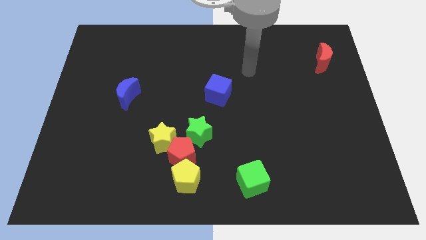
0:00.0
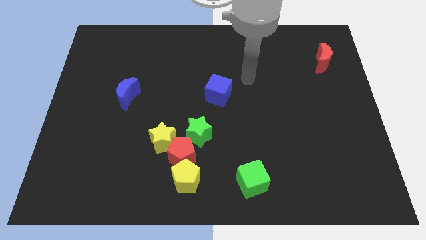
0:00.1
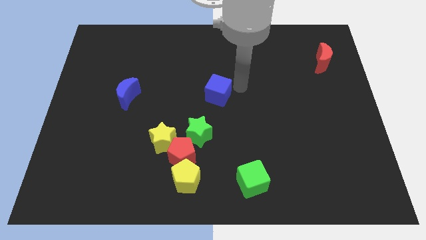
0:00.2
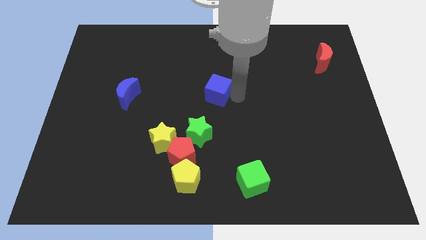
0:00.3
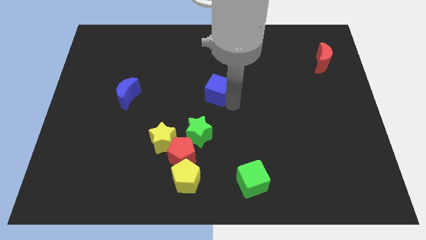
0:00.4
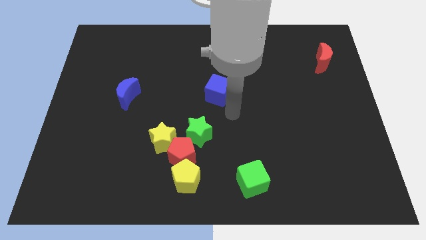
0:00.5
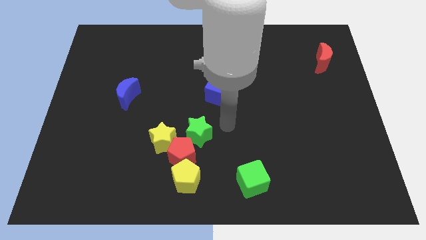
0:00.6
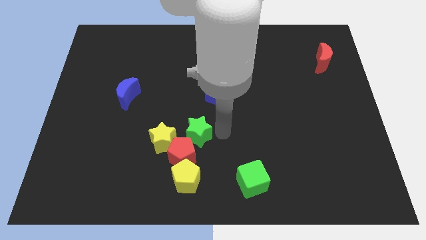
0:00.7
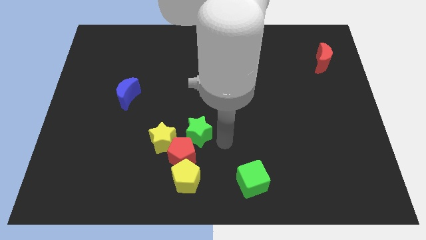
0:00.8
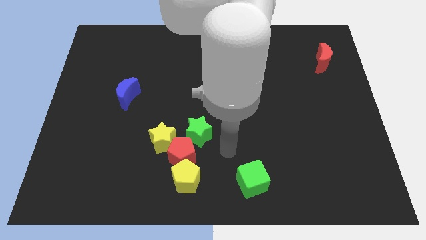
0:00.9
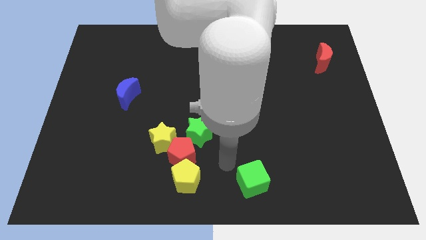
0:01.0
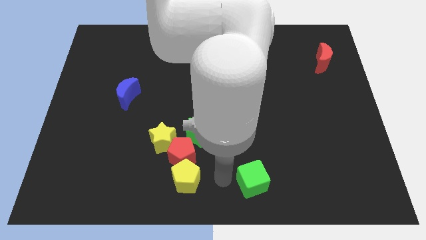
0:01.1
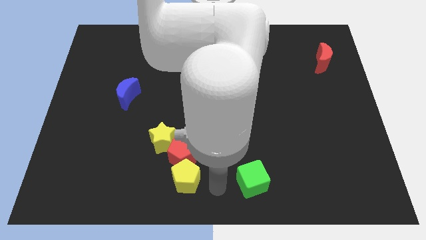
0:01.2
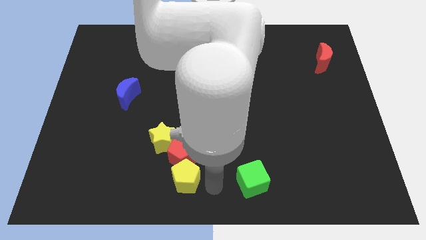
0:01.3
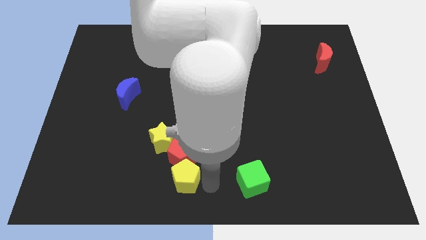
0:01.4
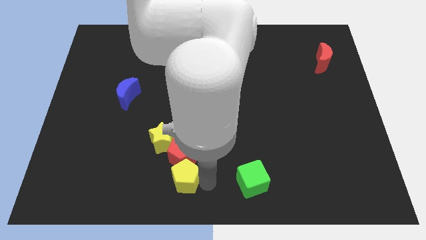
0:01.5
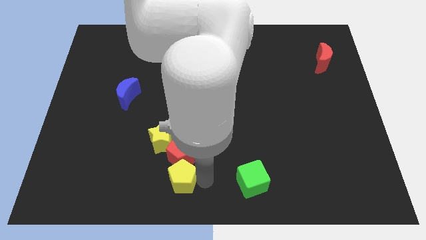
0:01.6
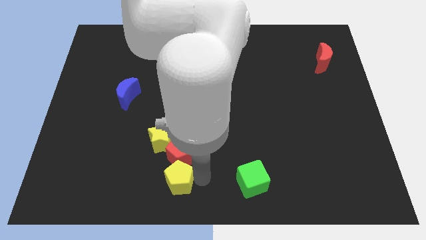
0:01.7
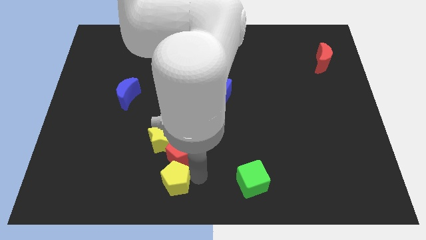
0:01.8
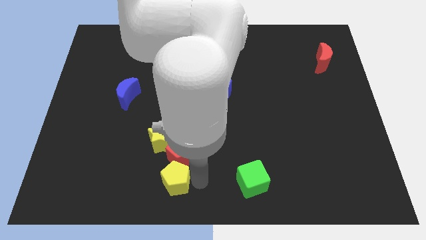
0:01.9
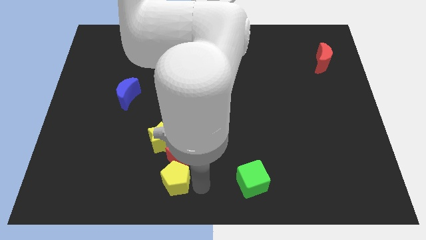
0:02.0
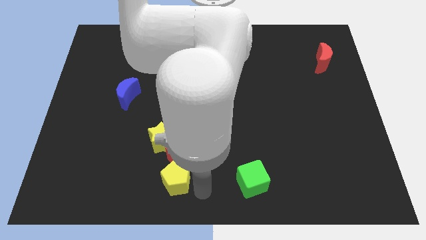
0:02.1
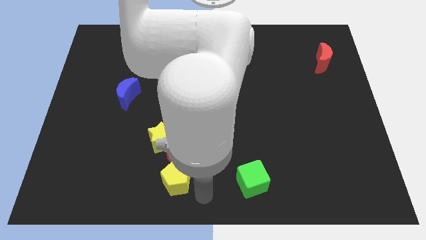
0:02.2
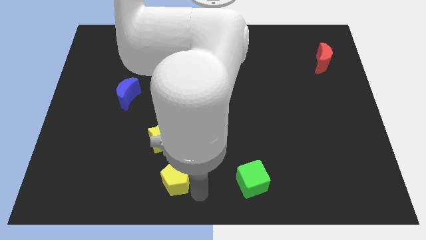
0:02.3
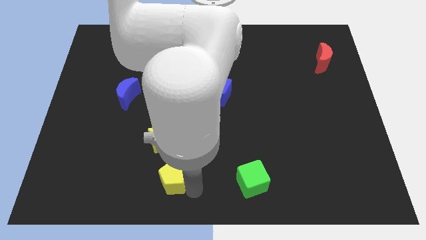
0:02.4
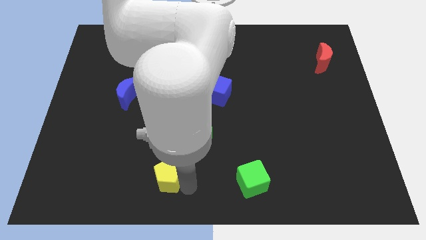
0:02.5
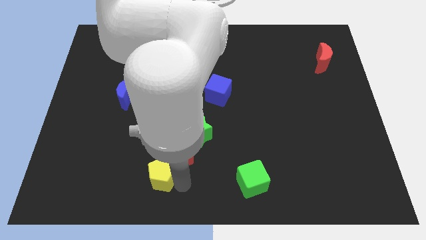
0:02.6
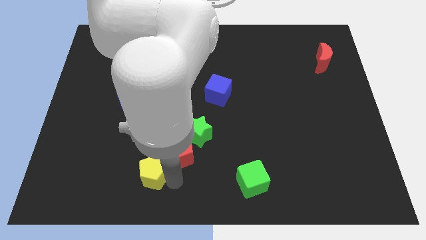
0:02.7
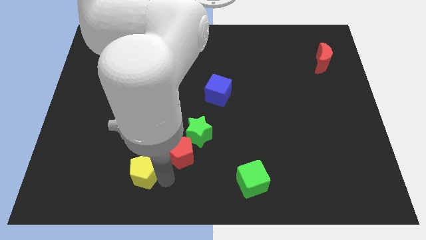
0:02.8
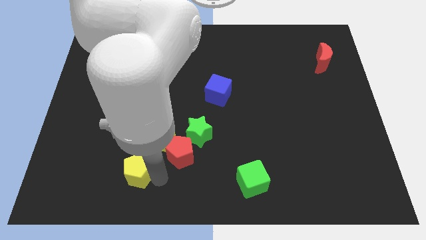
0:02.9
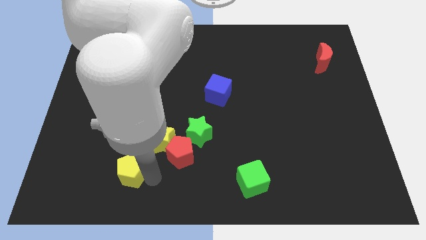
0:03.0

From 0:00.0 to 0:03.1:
slightly push the yellow pentagon up and then left

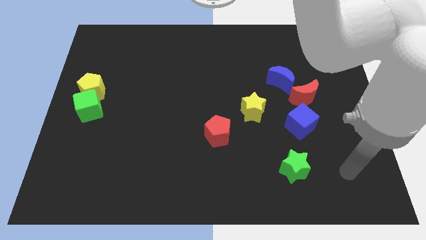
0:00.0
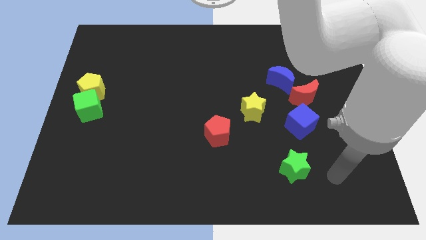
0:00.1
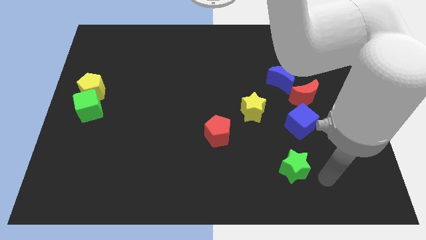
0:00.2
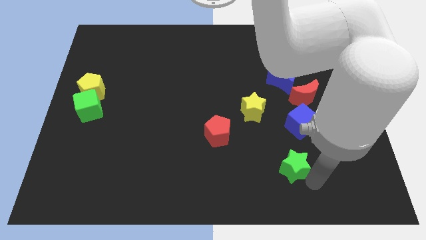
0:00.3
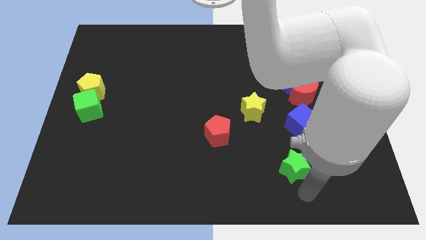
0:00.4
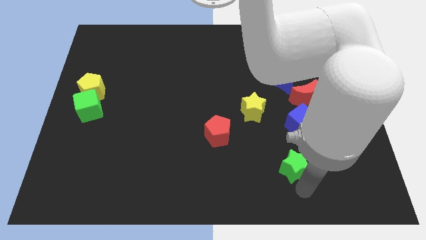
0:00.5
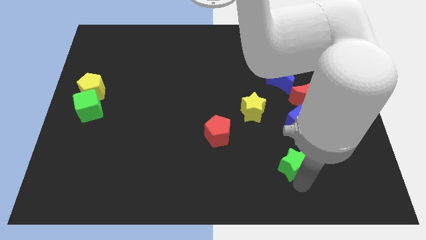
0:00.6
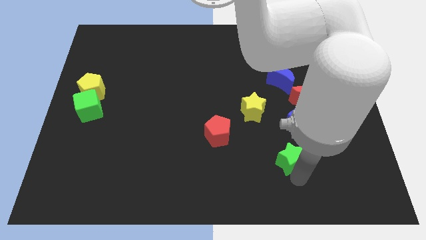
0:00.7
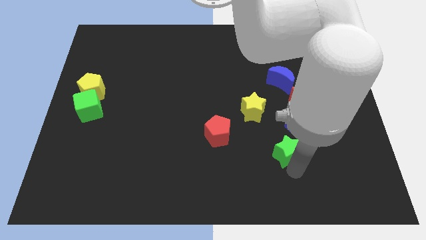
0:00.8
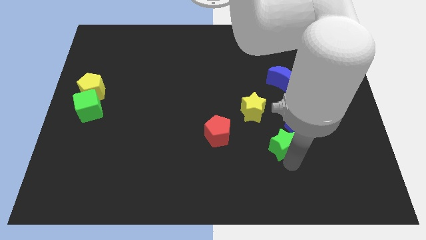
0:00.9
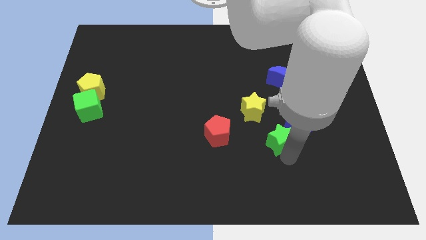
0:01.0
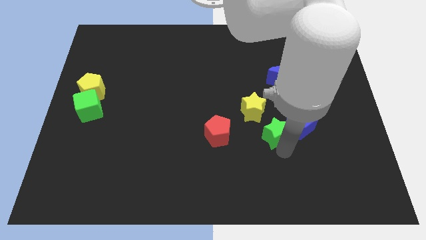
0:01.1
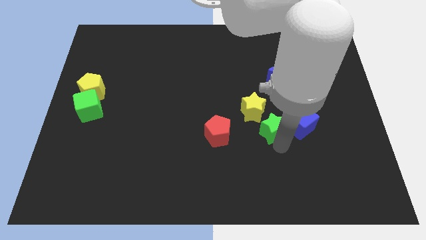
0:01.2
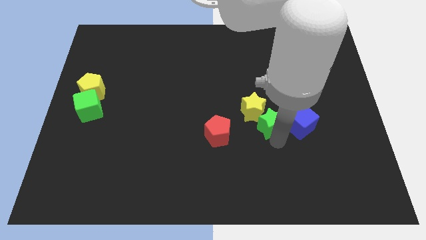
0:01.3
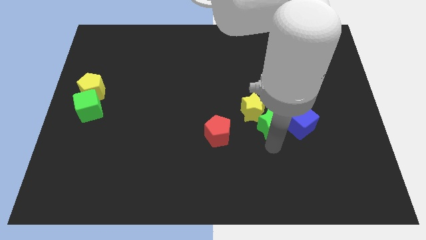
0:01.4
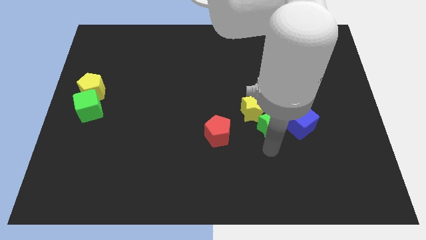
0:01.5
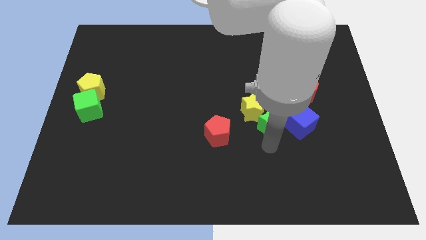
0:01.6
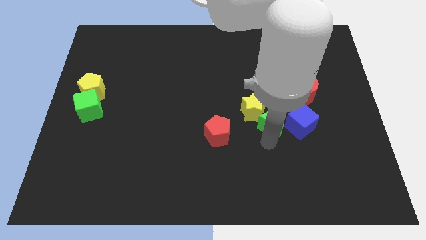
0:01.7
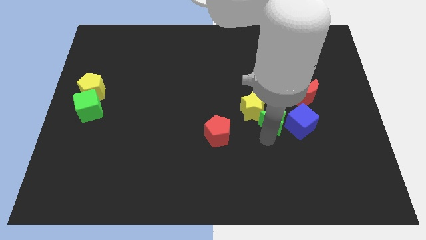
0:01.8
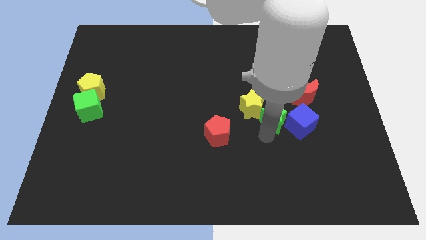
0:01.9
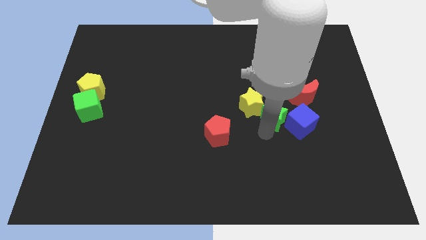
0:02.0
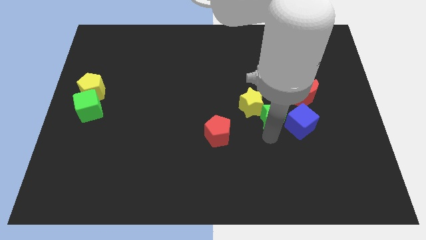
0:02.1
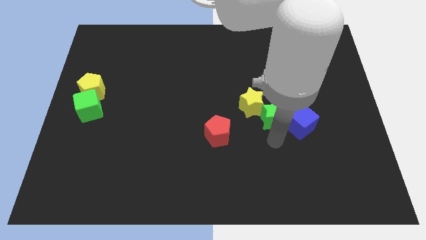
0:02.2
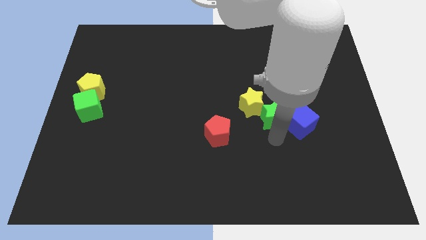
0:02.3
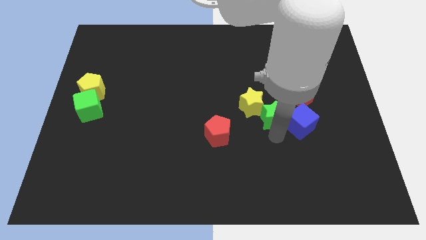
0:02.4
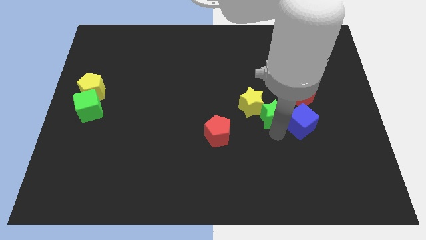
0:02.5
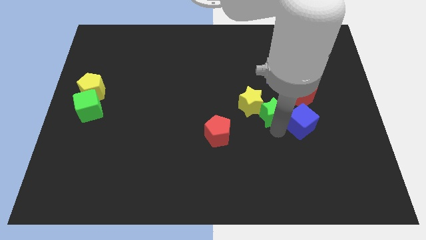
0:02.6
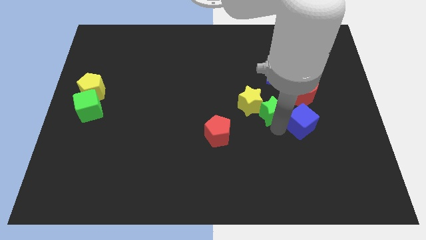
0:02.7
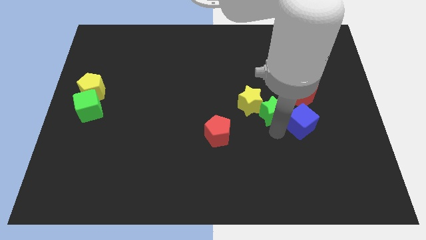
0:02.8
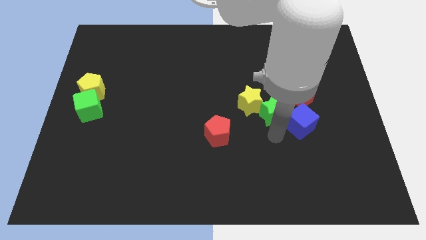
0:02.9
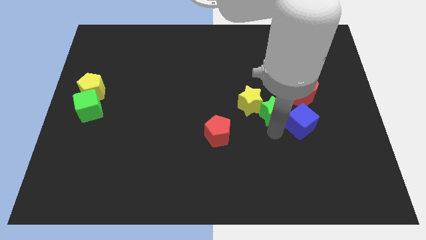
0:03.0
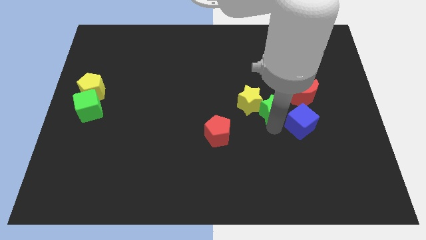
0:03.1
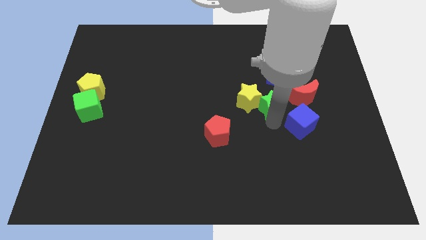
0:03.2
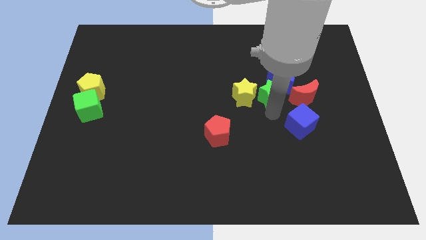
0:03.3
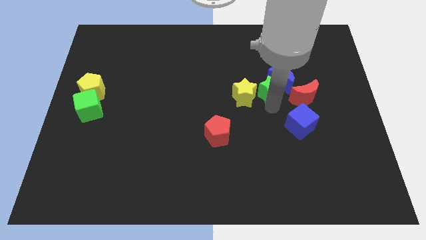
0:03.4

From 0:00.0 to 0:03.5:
move the green star up

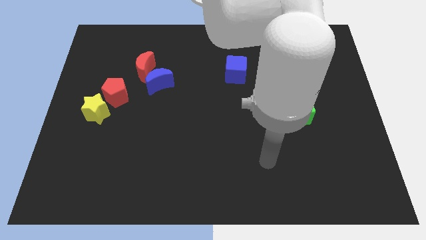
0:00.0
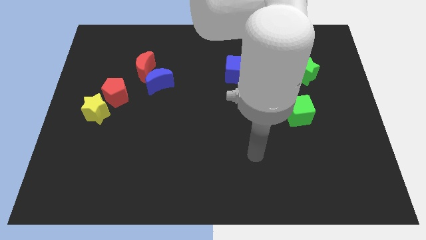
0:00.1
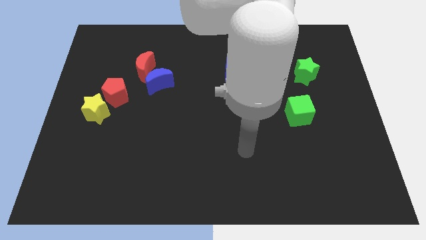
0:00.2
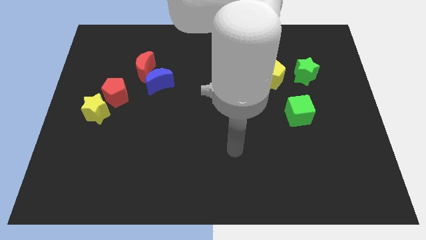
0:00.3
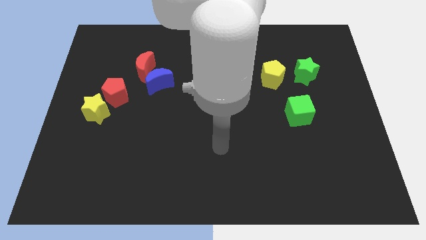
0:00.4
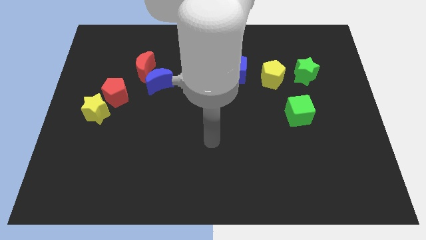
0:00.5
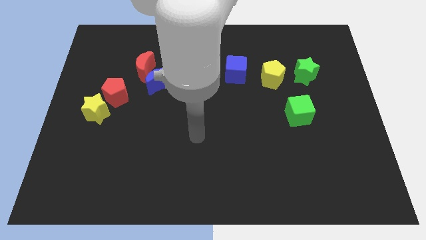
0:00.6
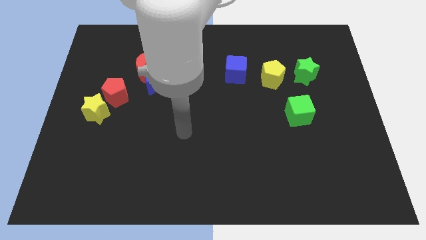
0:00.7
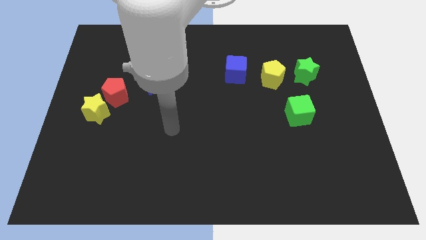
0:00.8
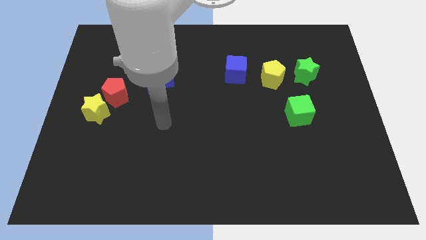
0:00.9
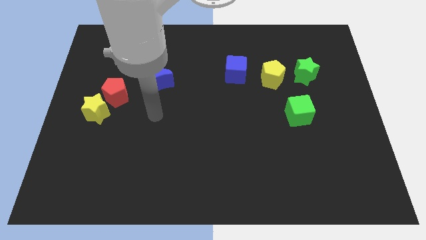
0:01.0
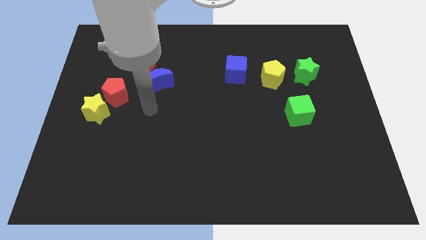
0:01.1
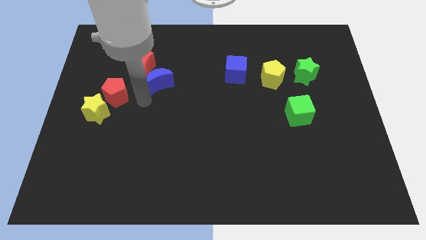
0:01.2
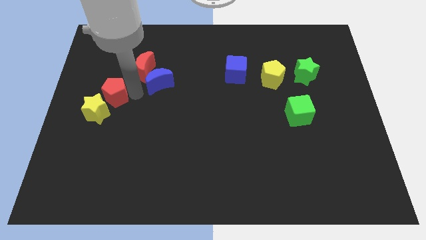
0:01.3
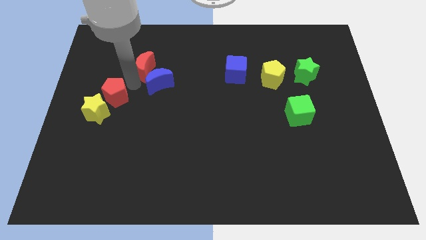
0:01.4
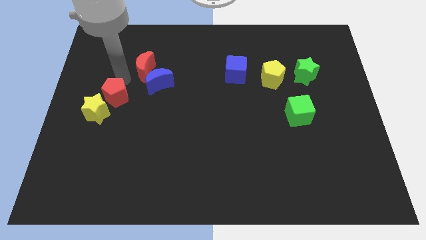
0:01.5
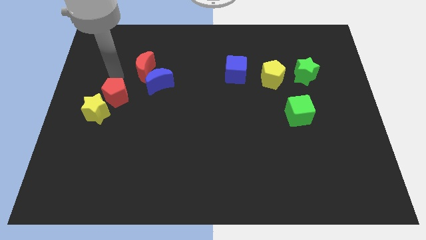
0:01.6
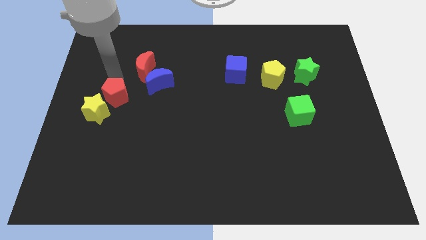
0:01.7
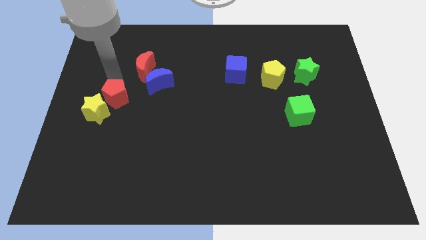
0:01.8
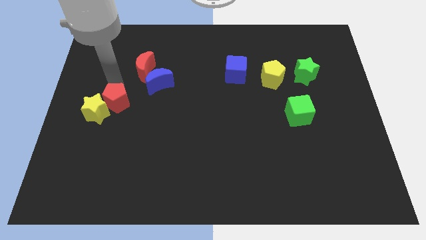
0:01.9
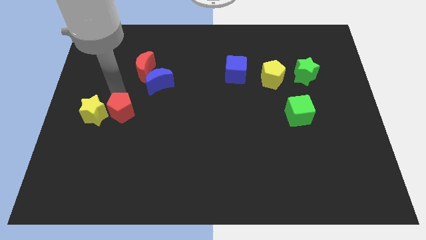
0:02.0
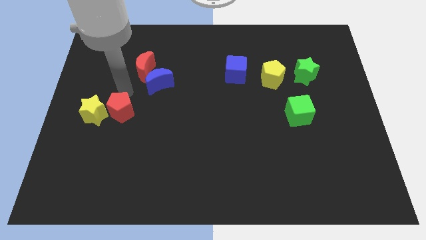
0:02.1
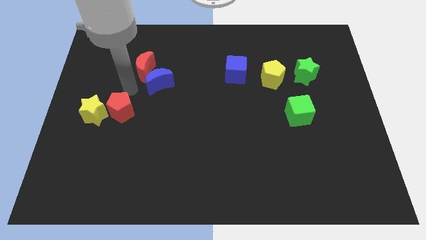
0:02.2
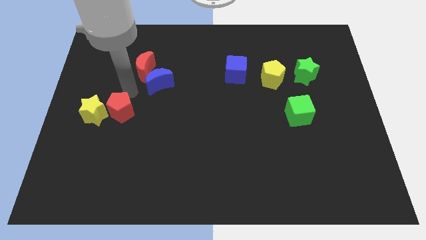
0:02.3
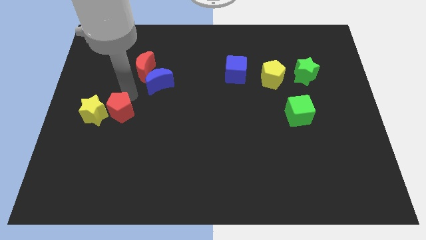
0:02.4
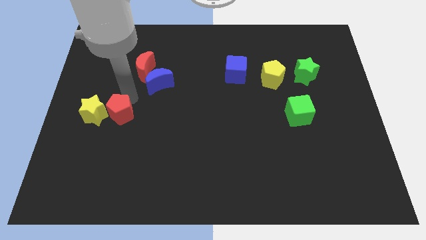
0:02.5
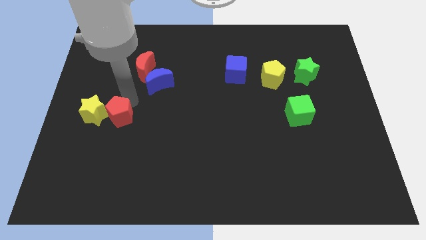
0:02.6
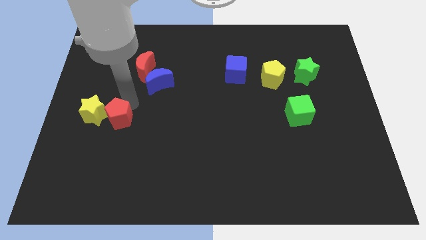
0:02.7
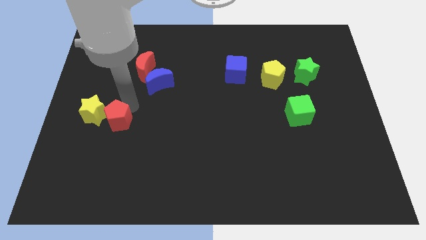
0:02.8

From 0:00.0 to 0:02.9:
slide the red pentagon down a little bit
